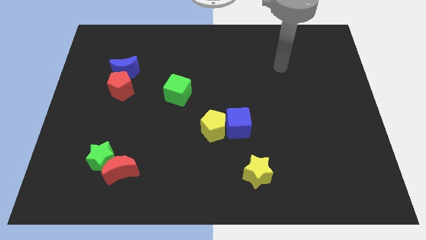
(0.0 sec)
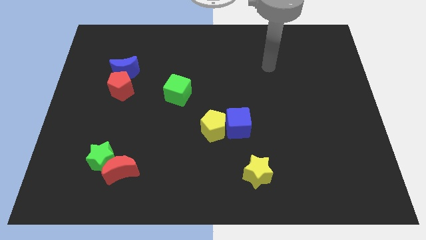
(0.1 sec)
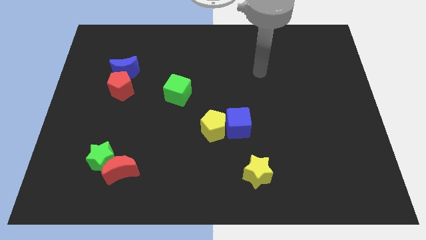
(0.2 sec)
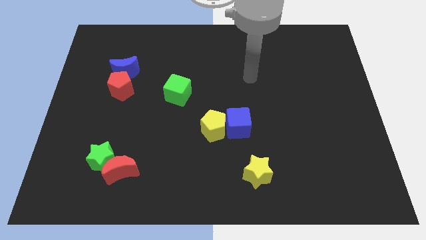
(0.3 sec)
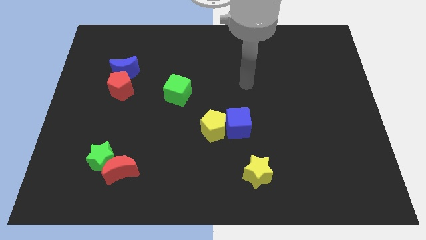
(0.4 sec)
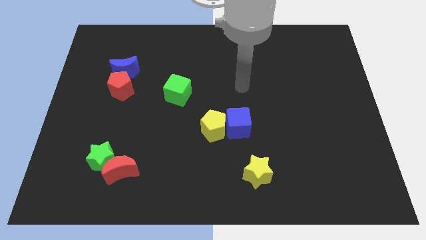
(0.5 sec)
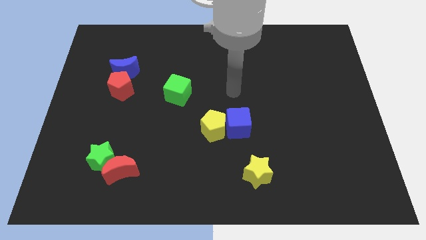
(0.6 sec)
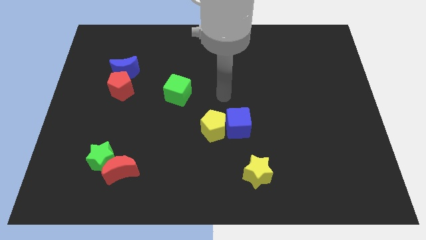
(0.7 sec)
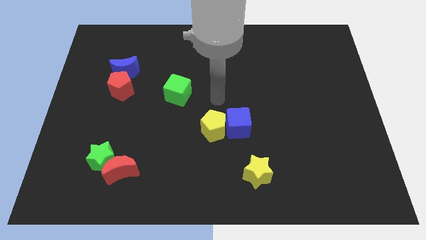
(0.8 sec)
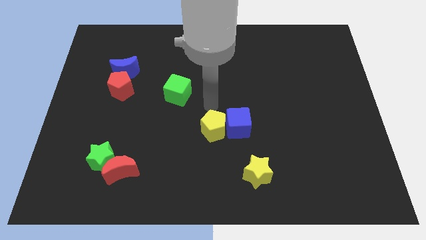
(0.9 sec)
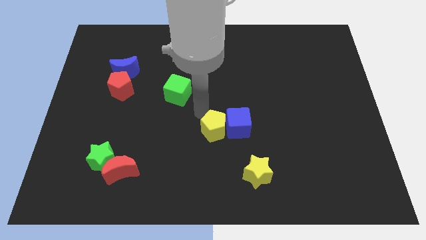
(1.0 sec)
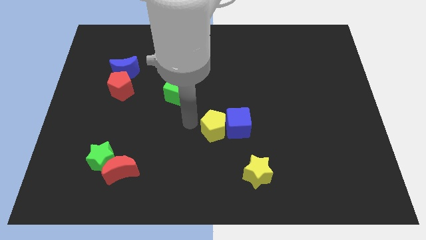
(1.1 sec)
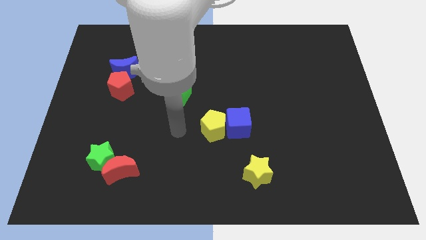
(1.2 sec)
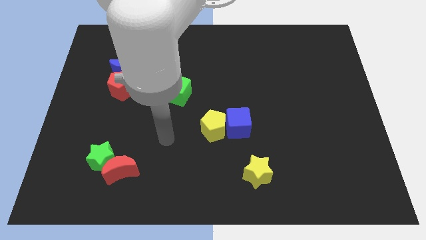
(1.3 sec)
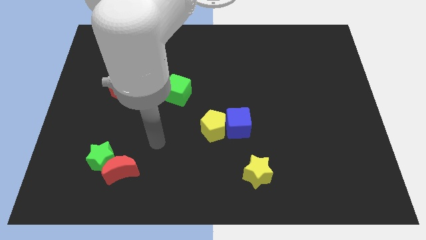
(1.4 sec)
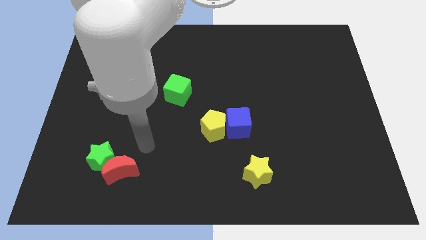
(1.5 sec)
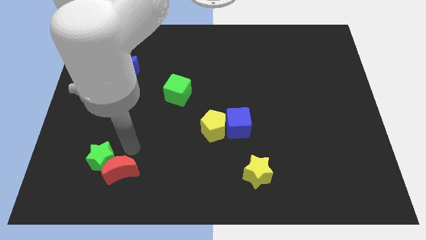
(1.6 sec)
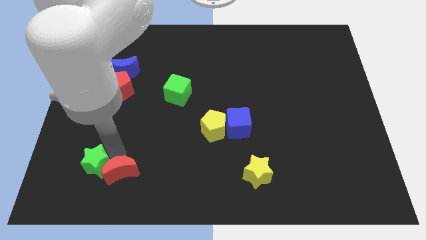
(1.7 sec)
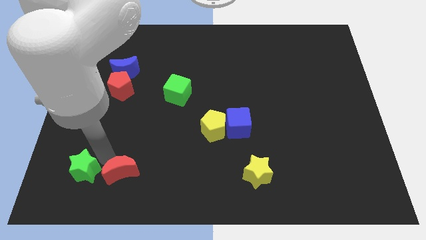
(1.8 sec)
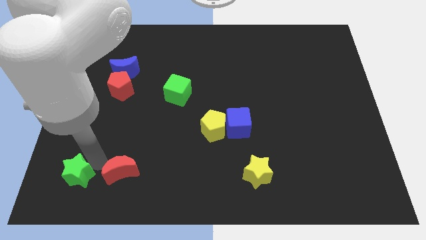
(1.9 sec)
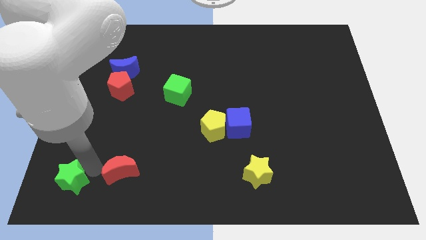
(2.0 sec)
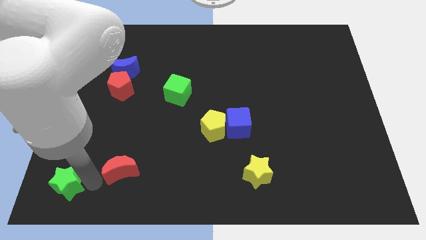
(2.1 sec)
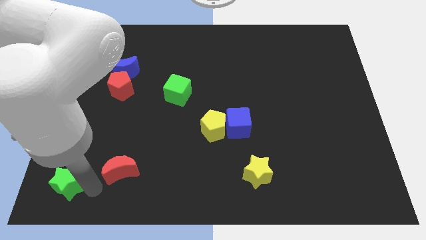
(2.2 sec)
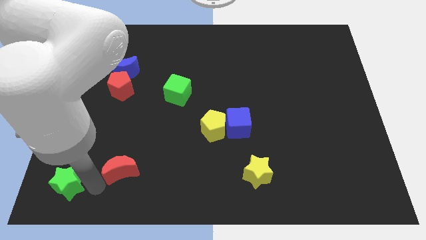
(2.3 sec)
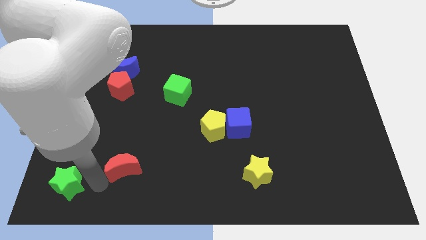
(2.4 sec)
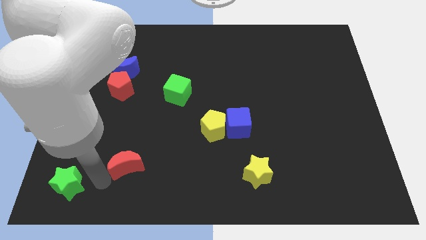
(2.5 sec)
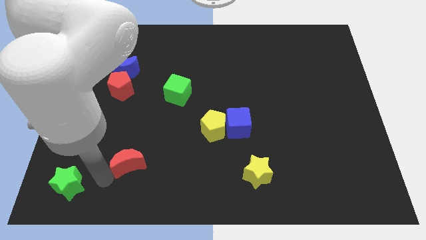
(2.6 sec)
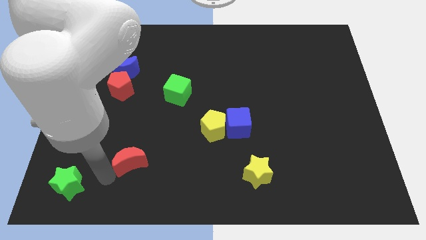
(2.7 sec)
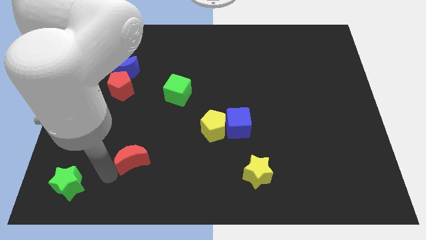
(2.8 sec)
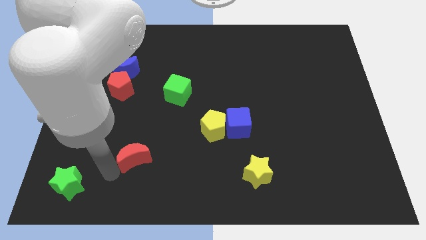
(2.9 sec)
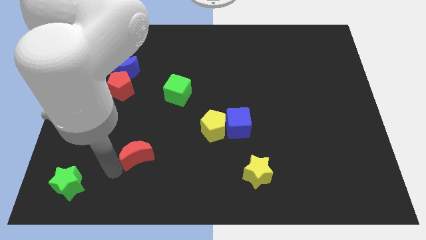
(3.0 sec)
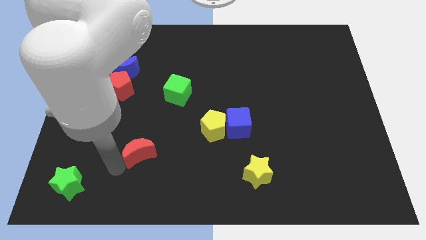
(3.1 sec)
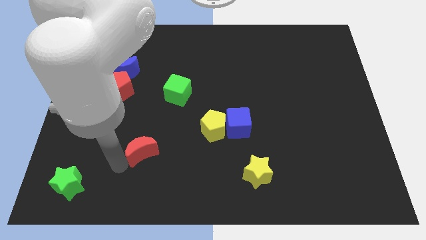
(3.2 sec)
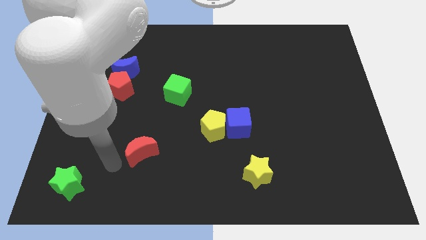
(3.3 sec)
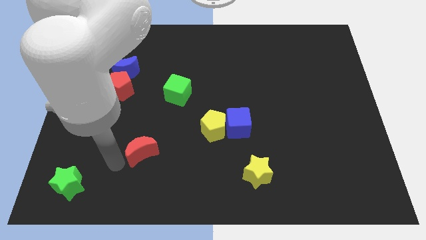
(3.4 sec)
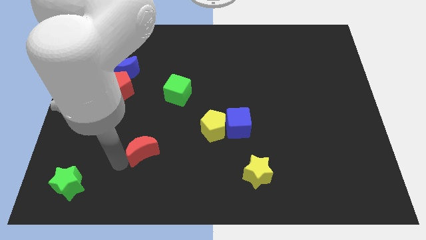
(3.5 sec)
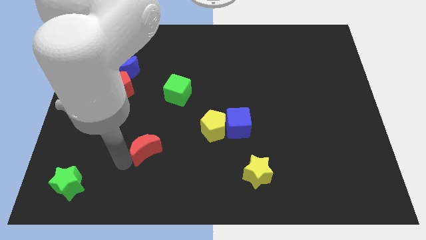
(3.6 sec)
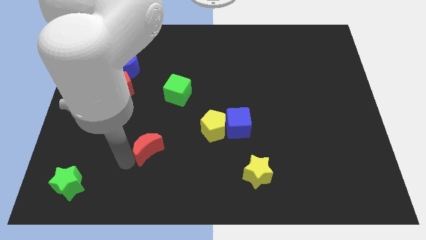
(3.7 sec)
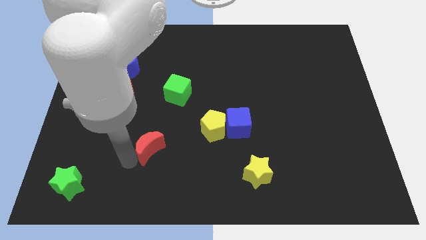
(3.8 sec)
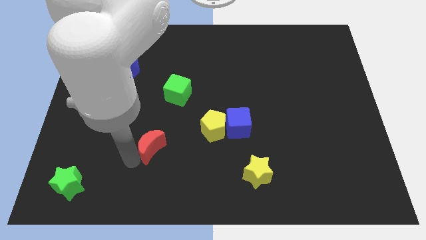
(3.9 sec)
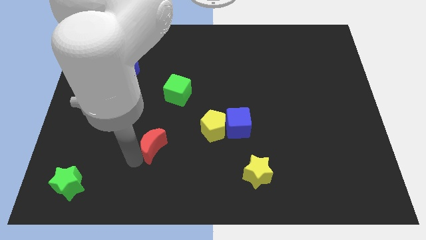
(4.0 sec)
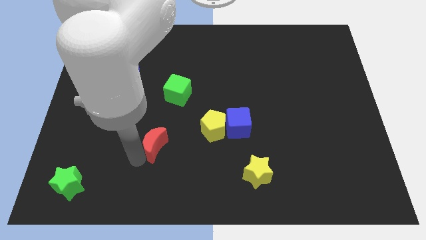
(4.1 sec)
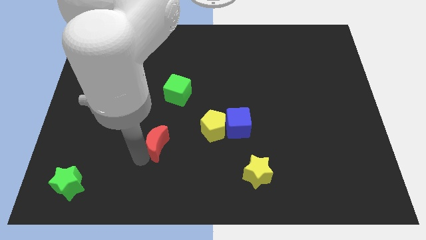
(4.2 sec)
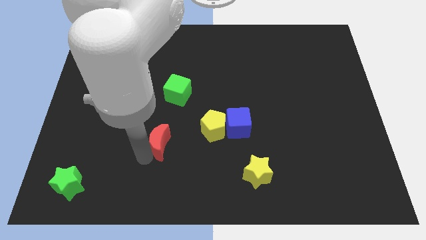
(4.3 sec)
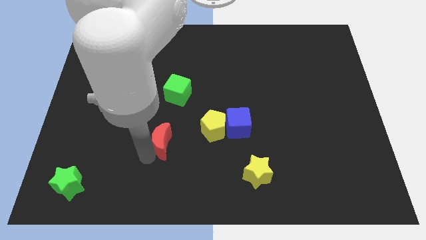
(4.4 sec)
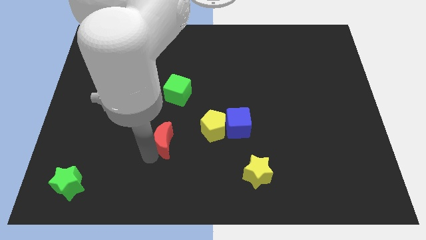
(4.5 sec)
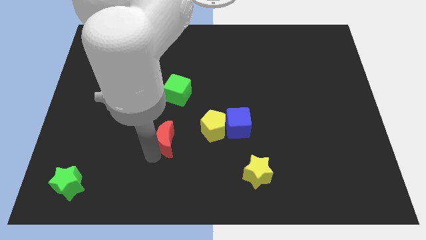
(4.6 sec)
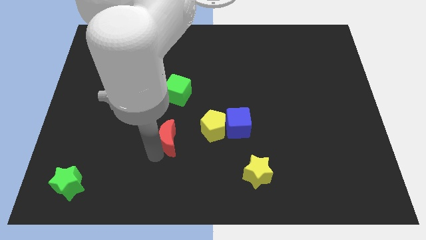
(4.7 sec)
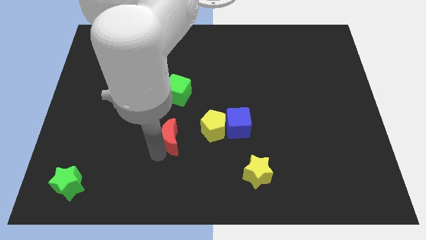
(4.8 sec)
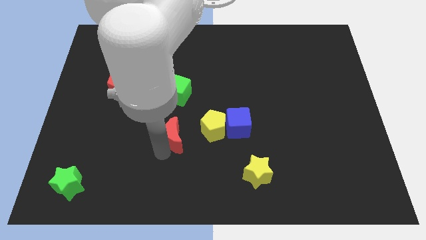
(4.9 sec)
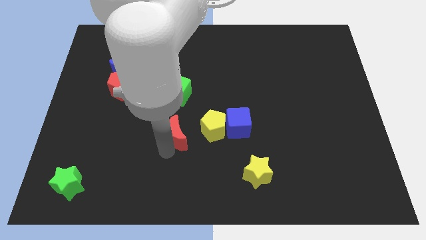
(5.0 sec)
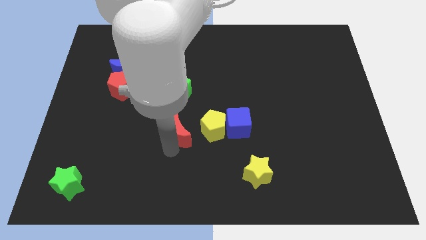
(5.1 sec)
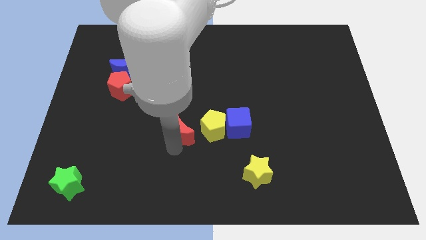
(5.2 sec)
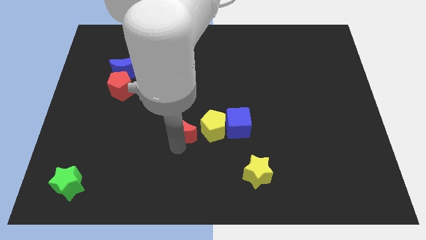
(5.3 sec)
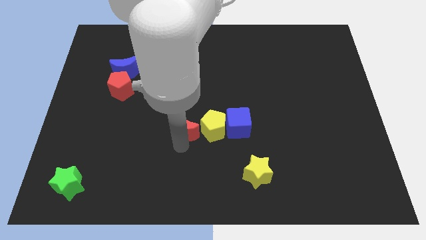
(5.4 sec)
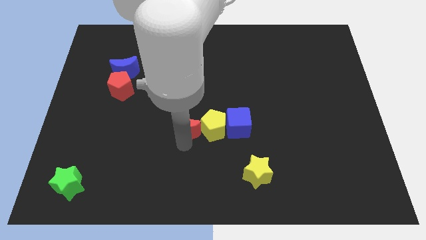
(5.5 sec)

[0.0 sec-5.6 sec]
move the red moon diagonally up and to the left of the yellow pentagon

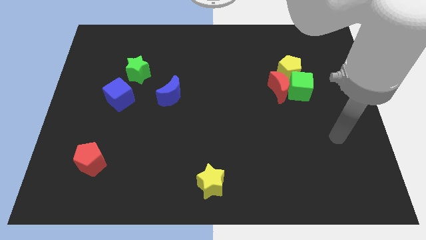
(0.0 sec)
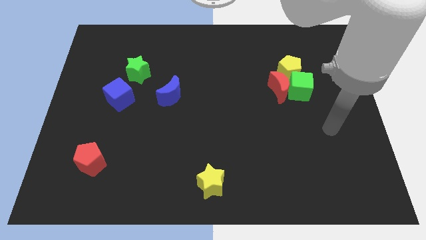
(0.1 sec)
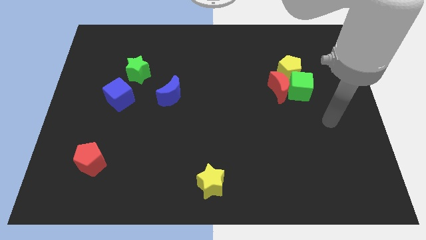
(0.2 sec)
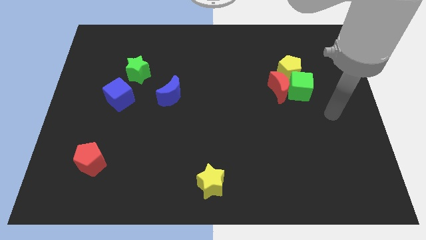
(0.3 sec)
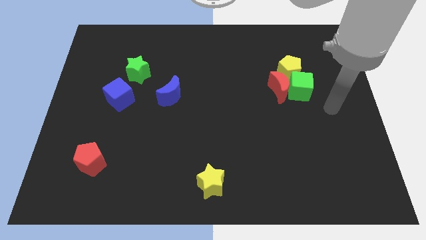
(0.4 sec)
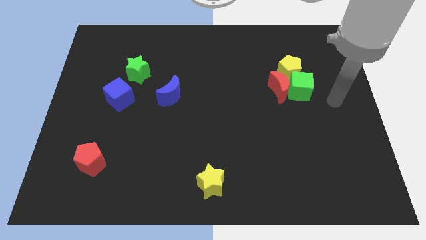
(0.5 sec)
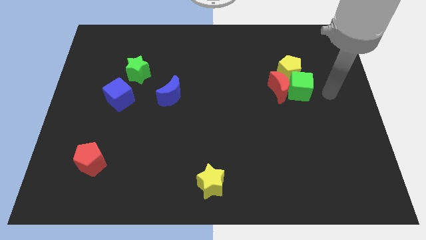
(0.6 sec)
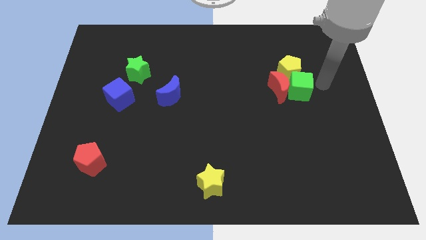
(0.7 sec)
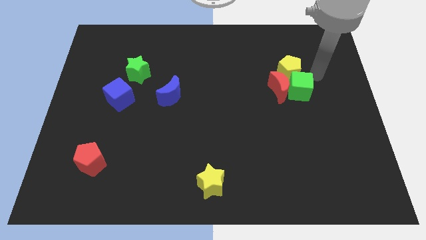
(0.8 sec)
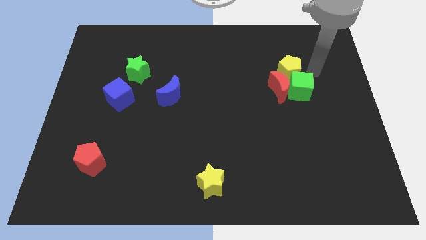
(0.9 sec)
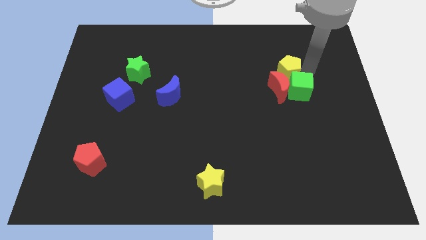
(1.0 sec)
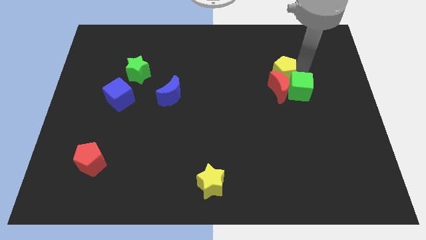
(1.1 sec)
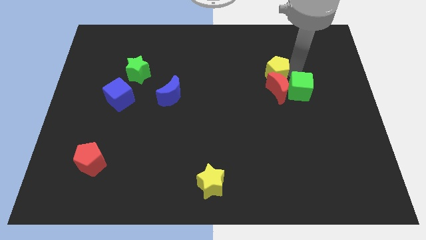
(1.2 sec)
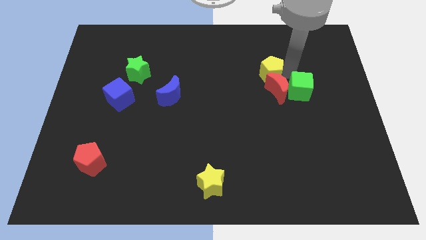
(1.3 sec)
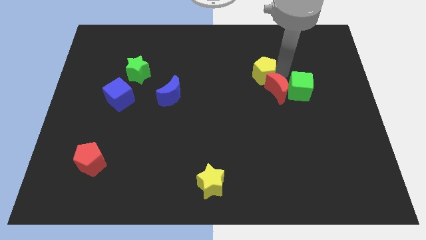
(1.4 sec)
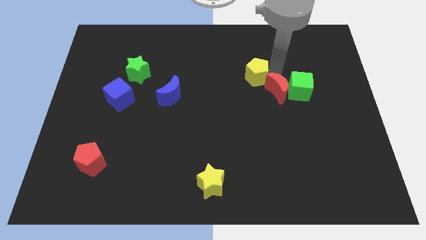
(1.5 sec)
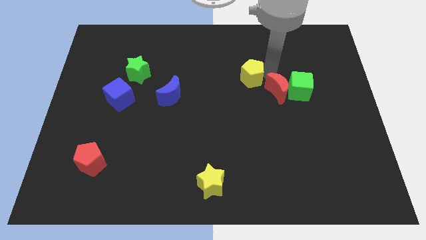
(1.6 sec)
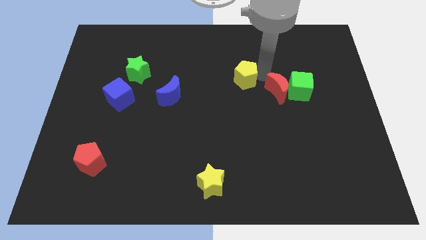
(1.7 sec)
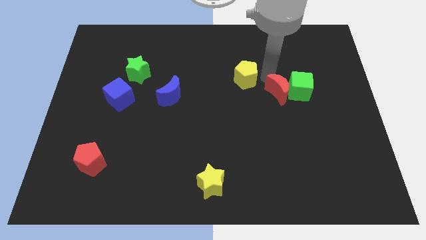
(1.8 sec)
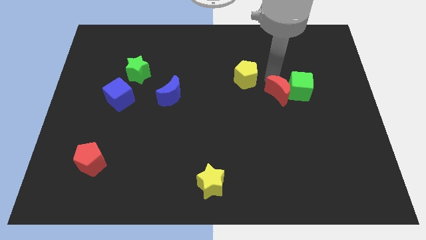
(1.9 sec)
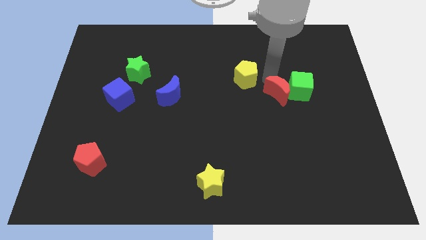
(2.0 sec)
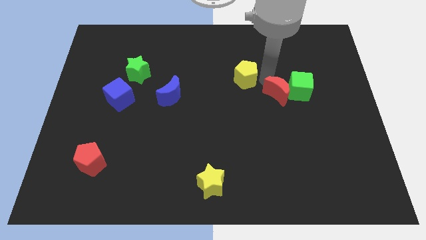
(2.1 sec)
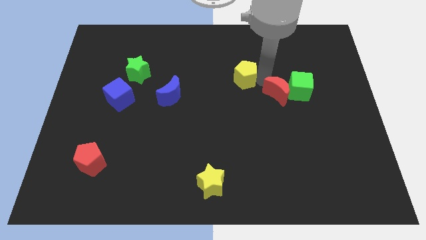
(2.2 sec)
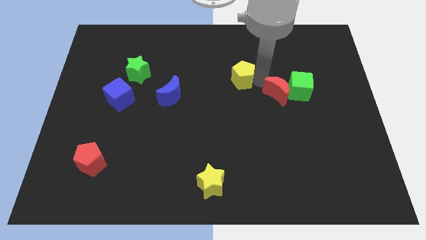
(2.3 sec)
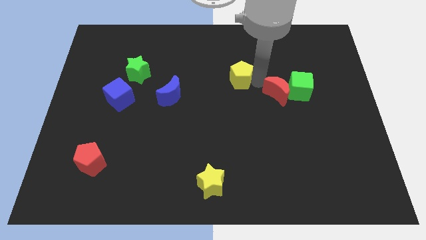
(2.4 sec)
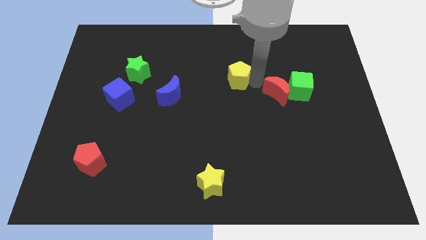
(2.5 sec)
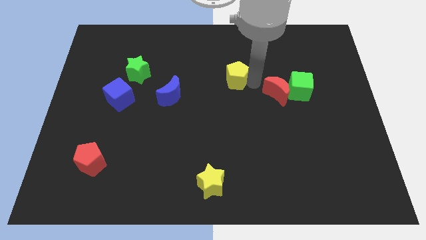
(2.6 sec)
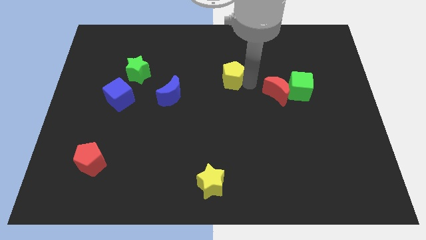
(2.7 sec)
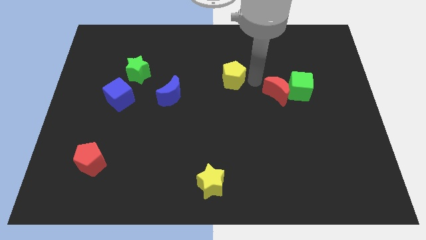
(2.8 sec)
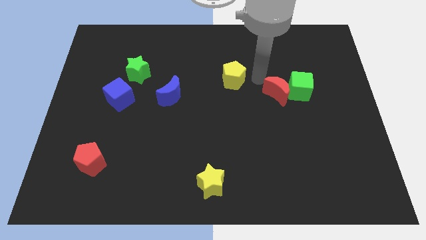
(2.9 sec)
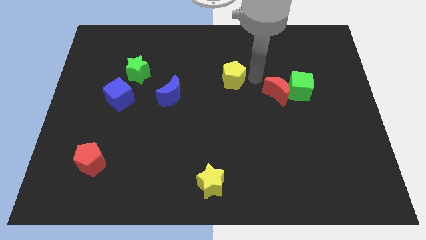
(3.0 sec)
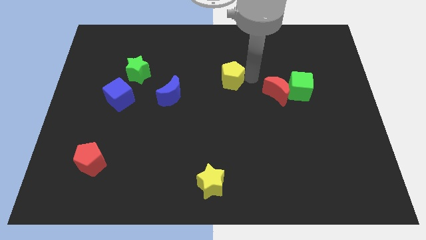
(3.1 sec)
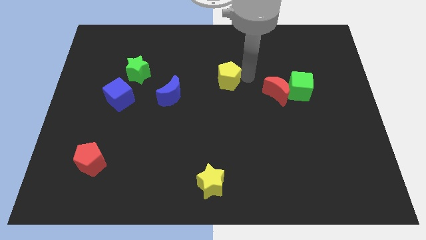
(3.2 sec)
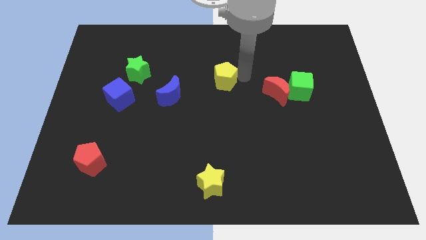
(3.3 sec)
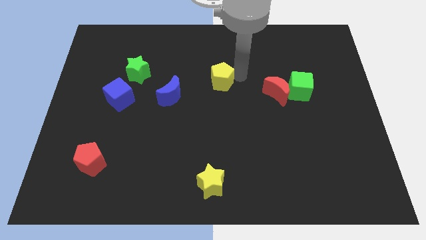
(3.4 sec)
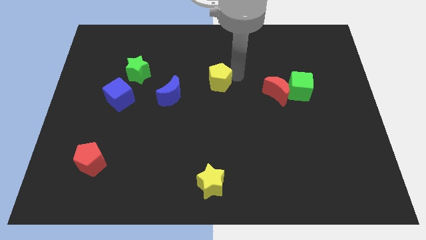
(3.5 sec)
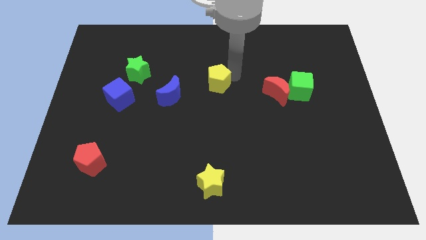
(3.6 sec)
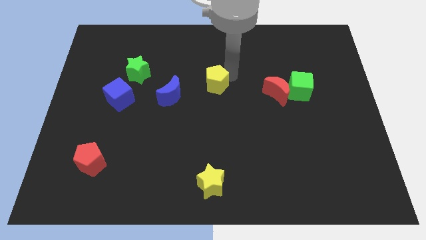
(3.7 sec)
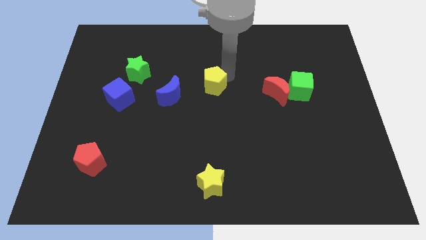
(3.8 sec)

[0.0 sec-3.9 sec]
put the yellow pentagon diagonally up and to the right of the blue moon
